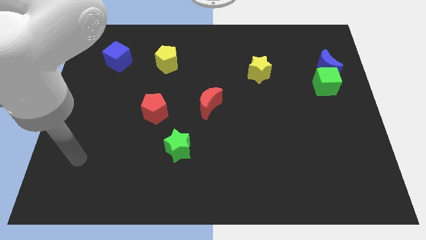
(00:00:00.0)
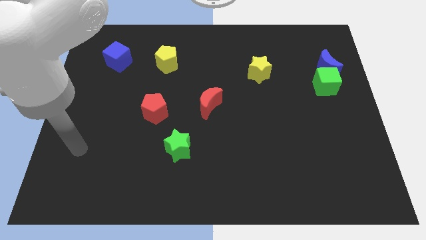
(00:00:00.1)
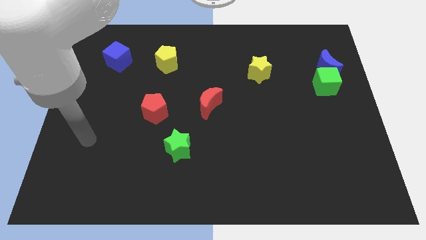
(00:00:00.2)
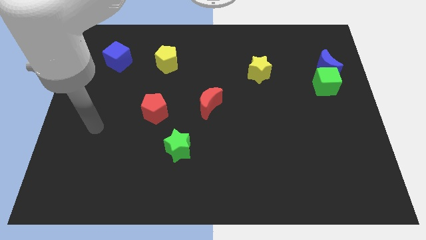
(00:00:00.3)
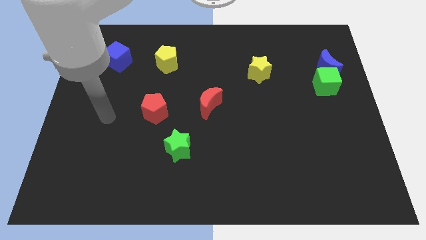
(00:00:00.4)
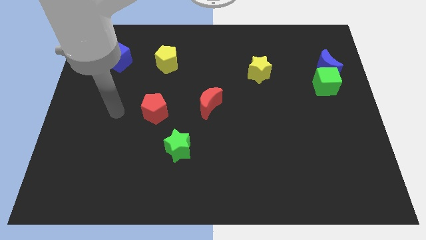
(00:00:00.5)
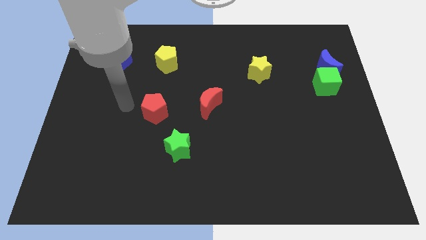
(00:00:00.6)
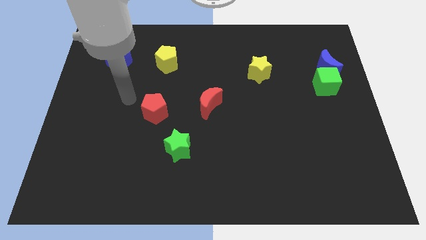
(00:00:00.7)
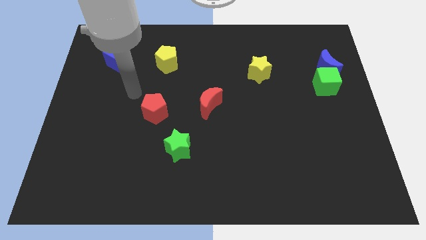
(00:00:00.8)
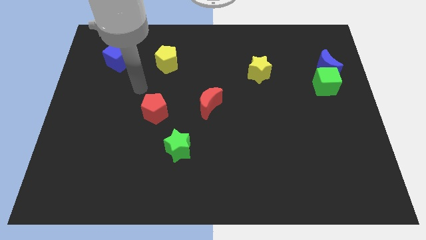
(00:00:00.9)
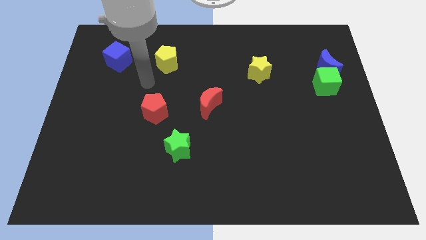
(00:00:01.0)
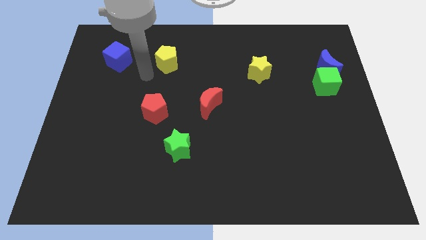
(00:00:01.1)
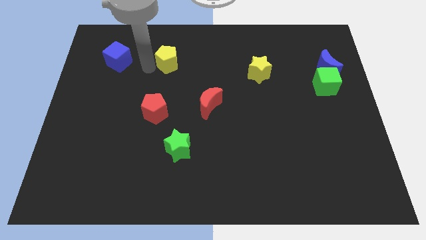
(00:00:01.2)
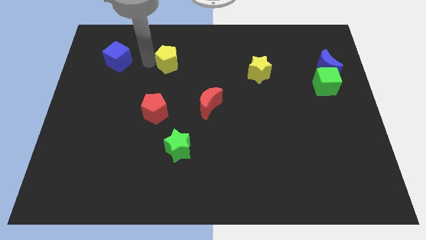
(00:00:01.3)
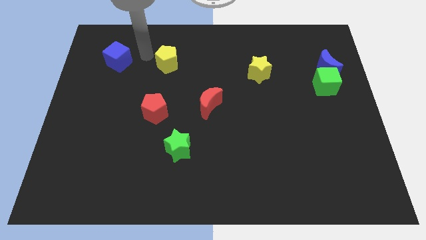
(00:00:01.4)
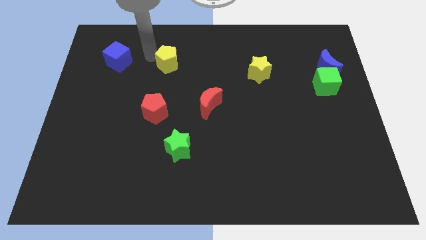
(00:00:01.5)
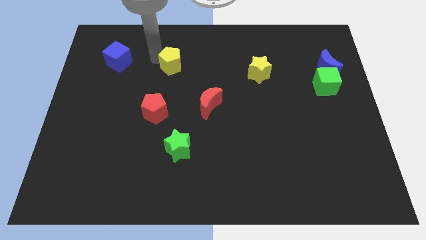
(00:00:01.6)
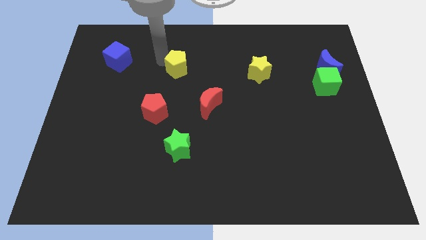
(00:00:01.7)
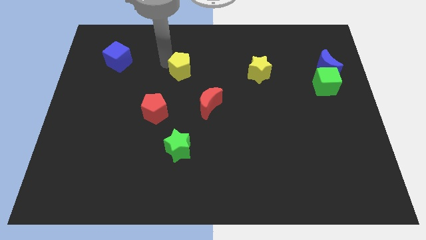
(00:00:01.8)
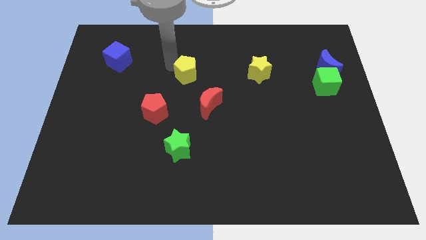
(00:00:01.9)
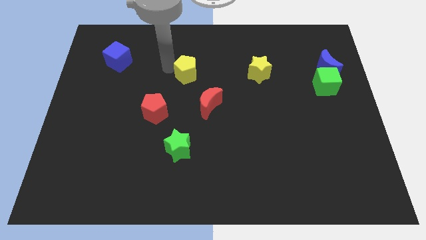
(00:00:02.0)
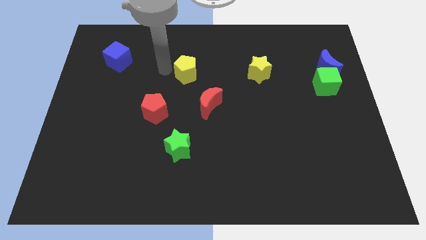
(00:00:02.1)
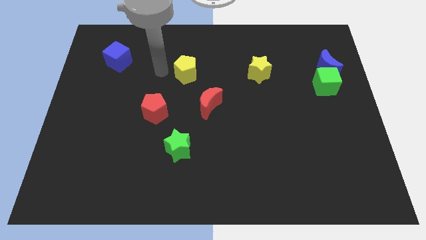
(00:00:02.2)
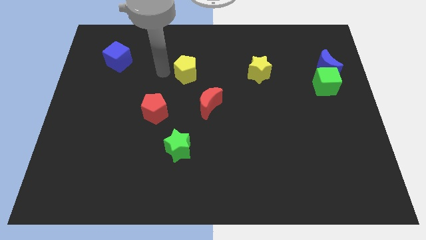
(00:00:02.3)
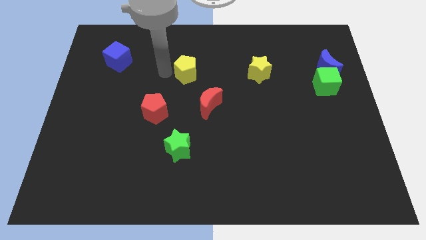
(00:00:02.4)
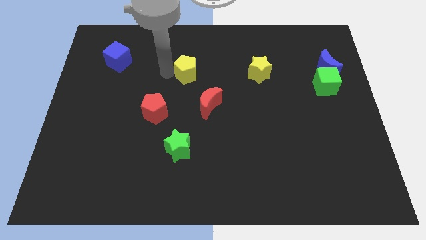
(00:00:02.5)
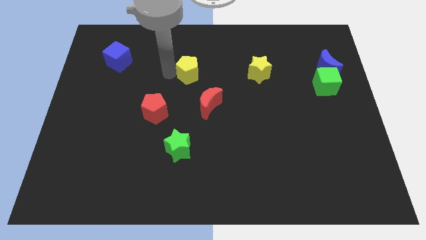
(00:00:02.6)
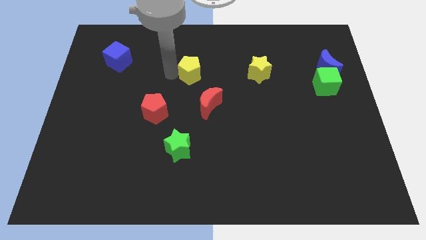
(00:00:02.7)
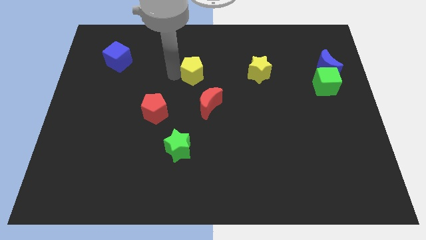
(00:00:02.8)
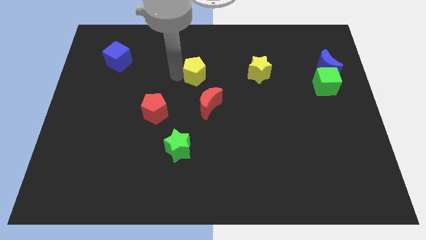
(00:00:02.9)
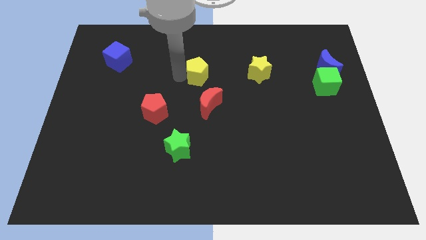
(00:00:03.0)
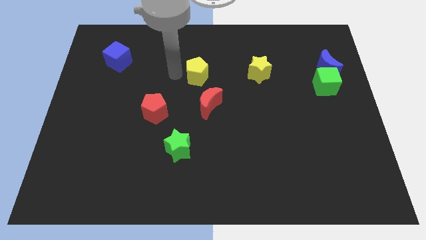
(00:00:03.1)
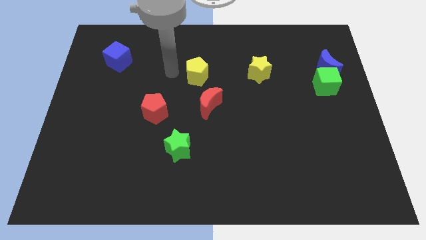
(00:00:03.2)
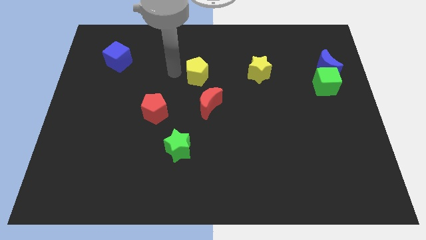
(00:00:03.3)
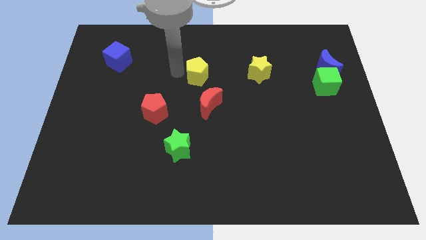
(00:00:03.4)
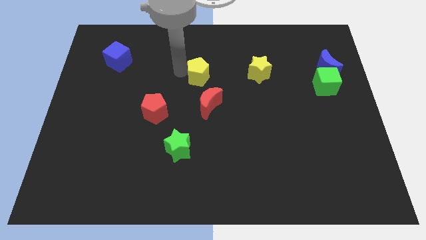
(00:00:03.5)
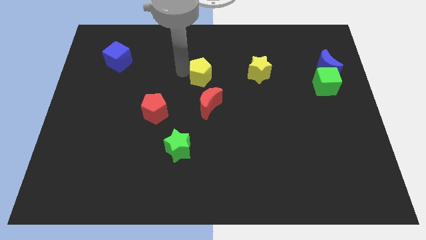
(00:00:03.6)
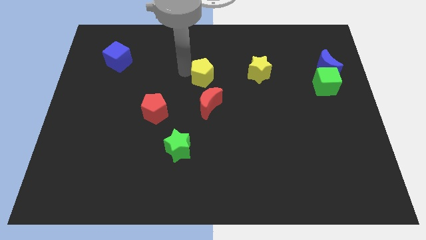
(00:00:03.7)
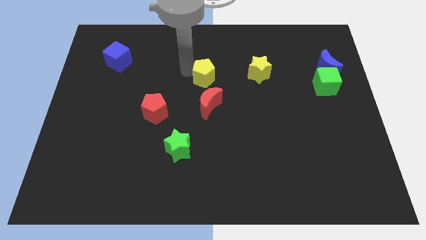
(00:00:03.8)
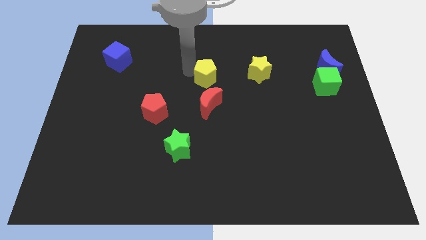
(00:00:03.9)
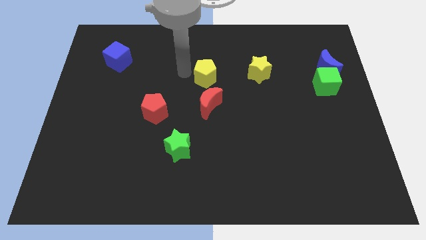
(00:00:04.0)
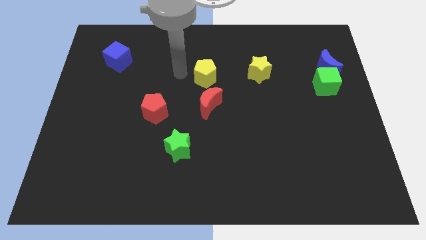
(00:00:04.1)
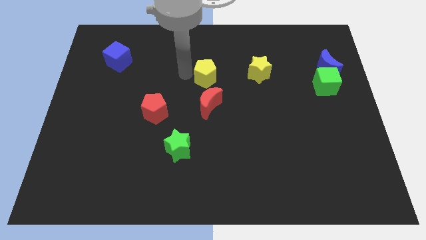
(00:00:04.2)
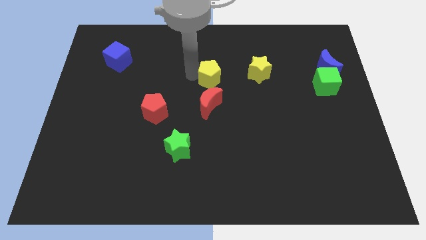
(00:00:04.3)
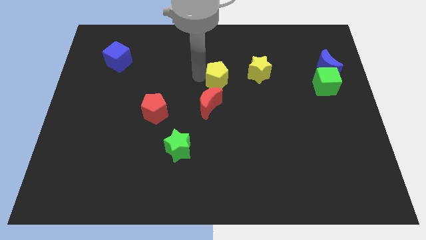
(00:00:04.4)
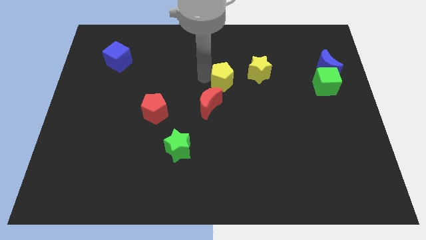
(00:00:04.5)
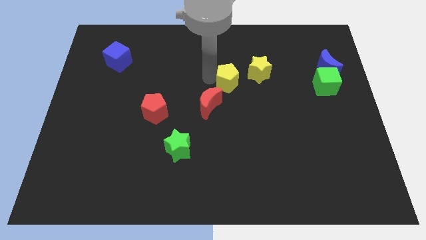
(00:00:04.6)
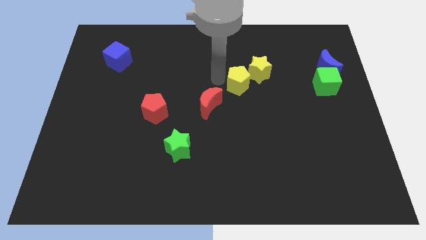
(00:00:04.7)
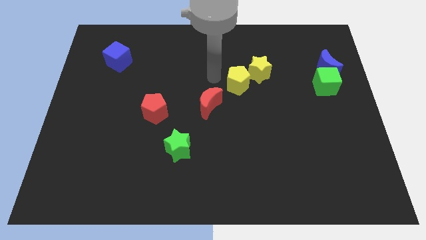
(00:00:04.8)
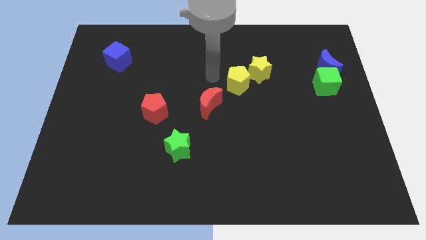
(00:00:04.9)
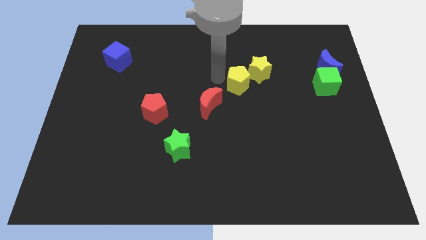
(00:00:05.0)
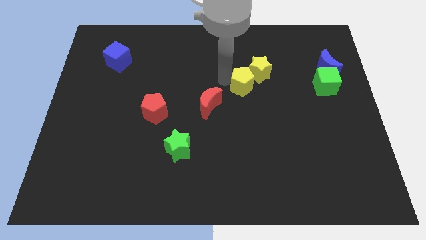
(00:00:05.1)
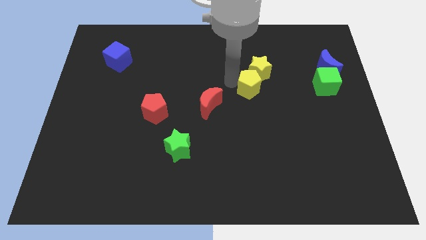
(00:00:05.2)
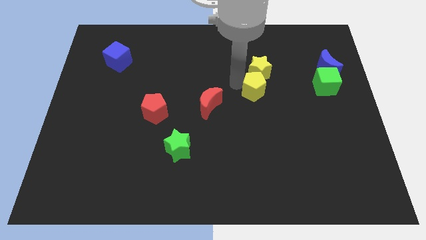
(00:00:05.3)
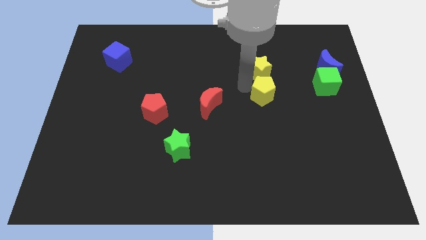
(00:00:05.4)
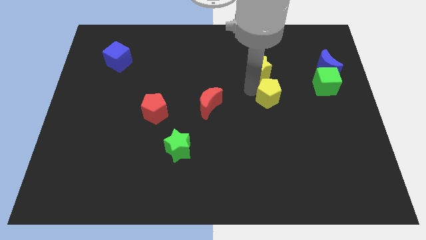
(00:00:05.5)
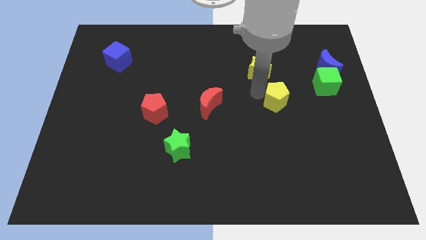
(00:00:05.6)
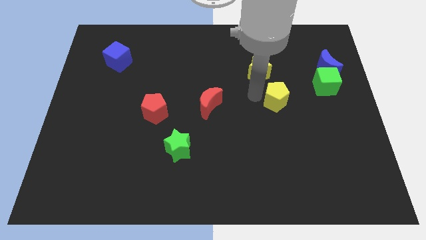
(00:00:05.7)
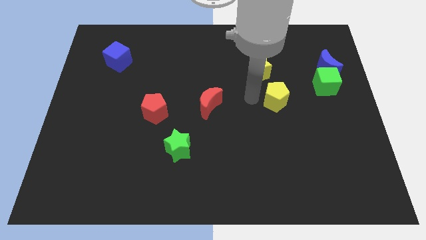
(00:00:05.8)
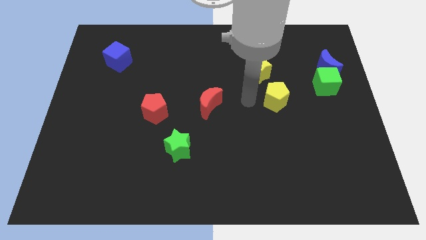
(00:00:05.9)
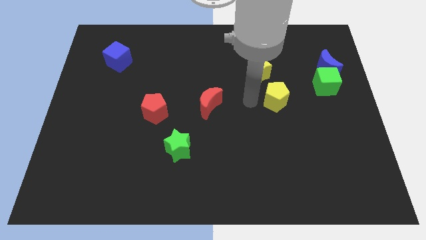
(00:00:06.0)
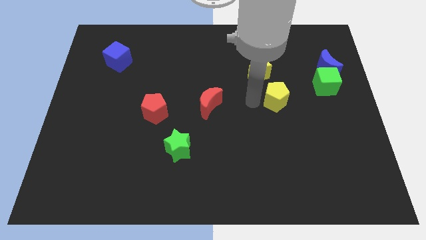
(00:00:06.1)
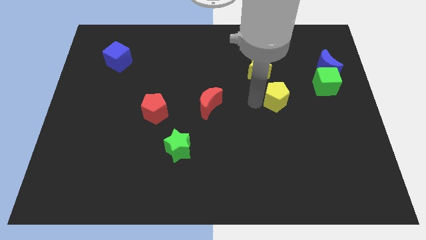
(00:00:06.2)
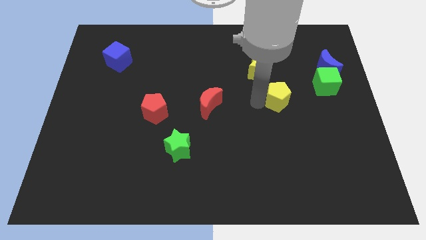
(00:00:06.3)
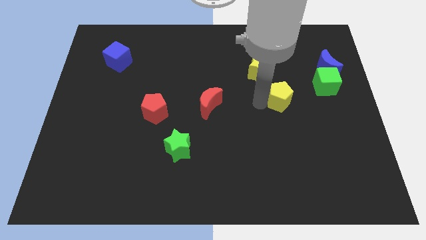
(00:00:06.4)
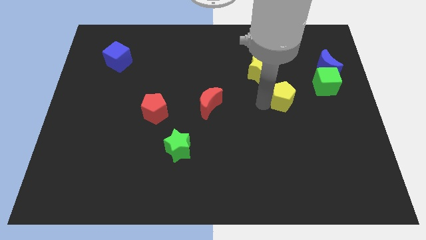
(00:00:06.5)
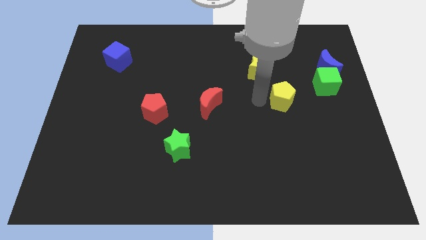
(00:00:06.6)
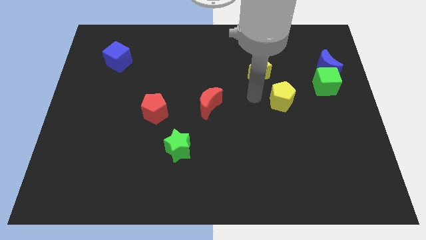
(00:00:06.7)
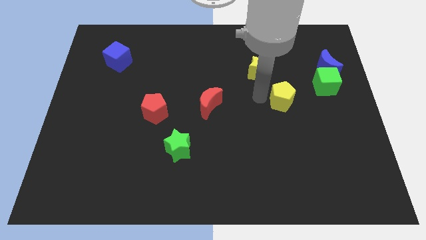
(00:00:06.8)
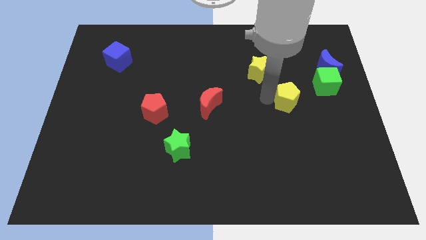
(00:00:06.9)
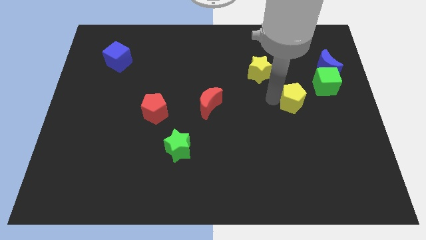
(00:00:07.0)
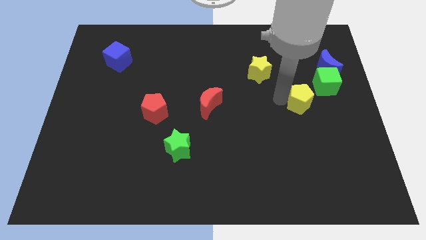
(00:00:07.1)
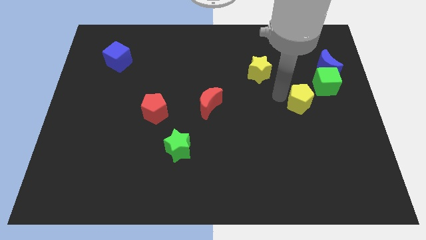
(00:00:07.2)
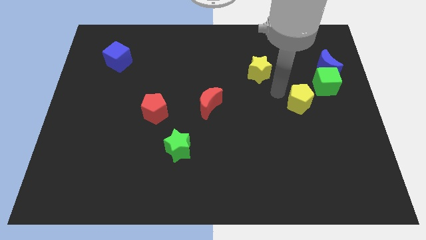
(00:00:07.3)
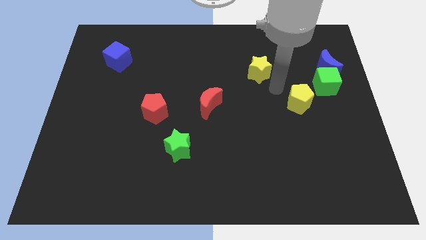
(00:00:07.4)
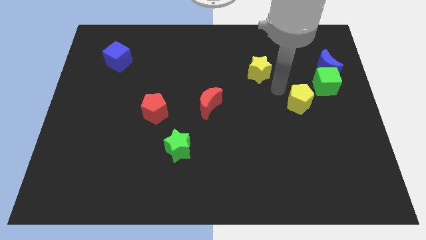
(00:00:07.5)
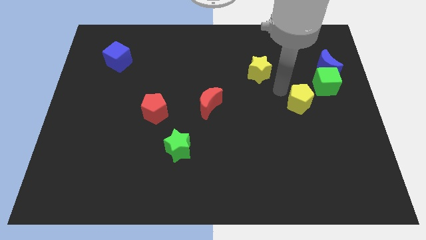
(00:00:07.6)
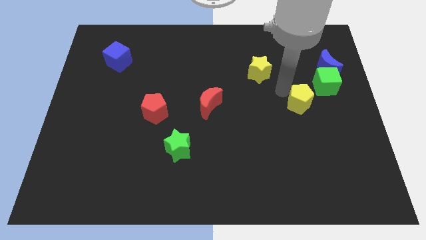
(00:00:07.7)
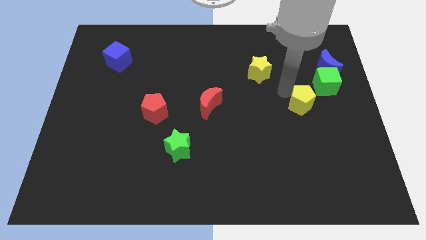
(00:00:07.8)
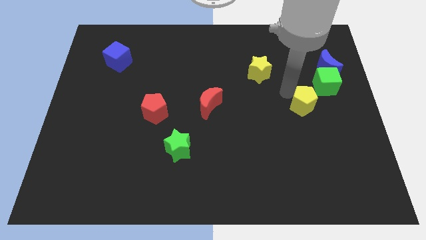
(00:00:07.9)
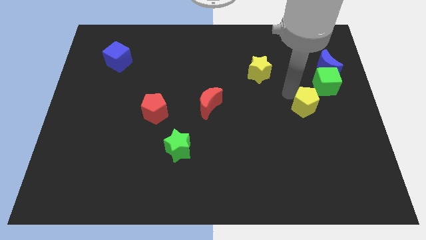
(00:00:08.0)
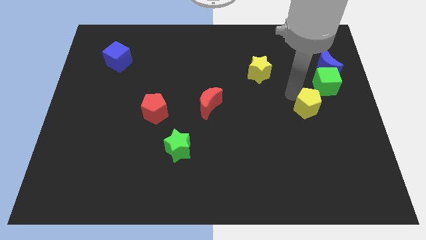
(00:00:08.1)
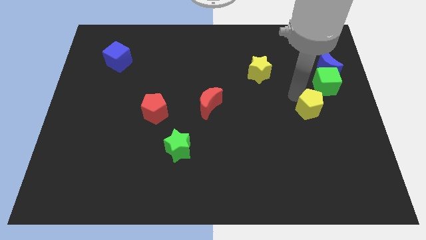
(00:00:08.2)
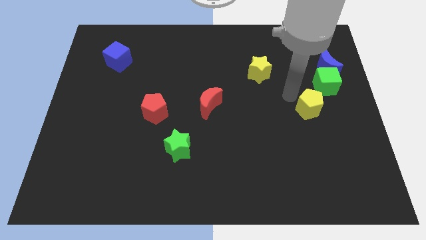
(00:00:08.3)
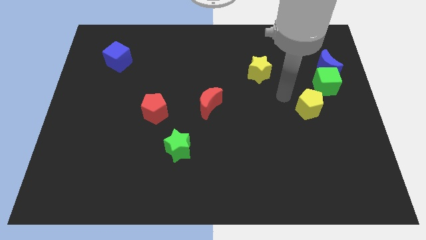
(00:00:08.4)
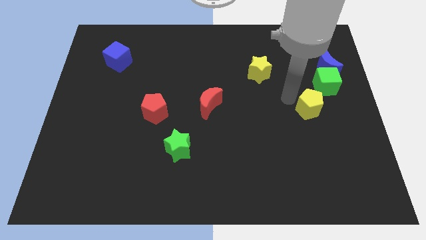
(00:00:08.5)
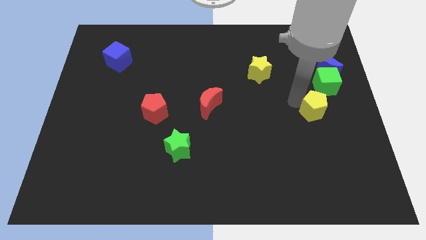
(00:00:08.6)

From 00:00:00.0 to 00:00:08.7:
push the yellow pentagon to the bottom of the green cube
